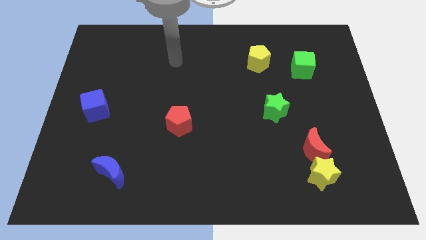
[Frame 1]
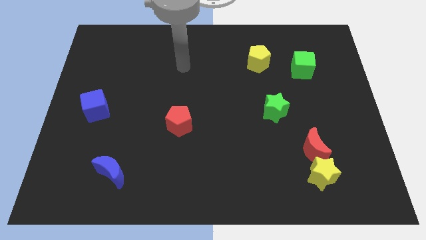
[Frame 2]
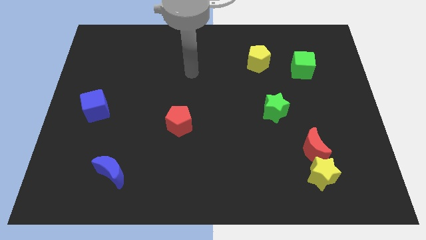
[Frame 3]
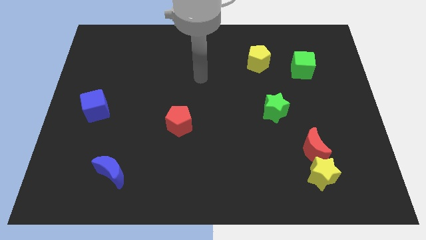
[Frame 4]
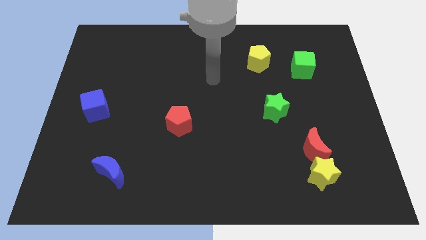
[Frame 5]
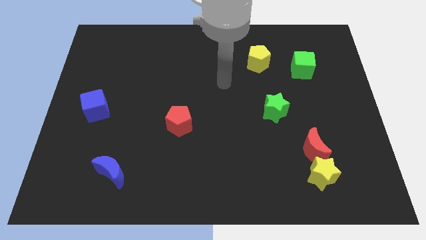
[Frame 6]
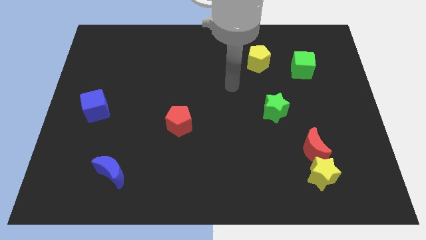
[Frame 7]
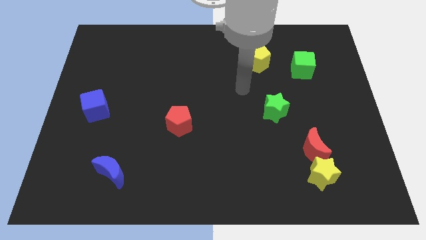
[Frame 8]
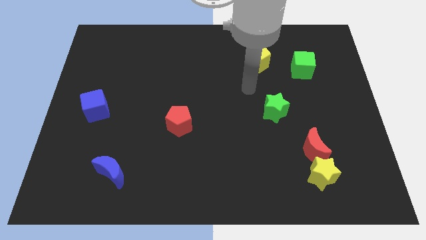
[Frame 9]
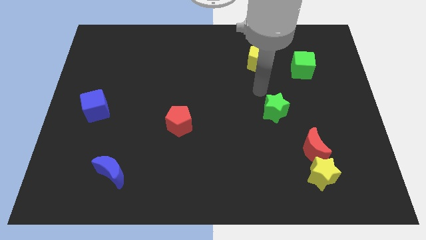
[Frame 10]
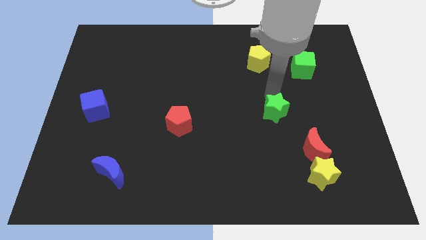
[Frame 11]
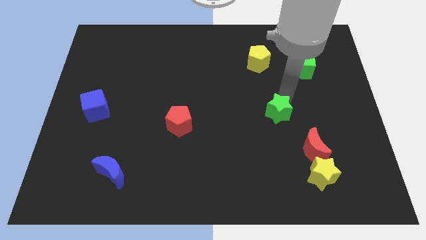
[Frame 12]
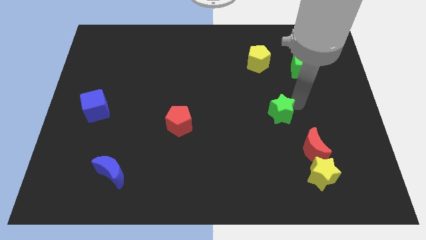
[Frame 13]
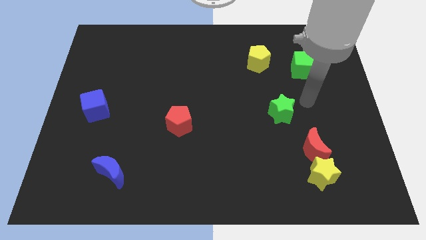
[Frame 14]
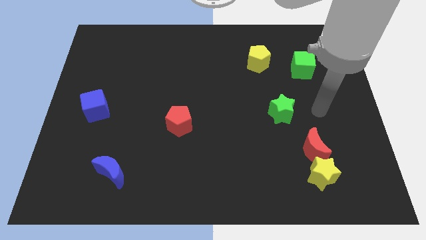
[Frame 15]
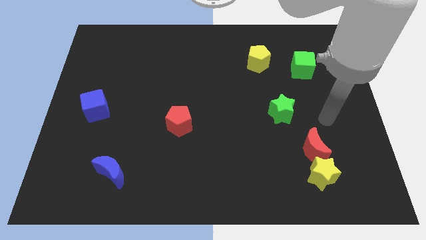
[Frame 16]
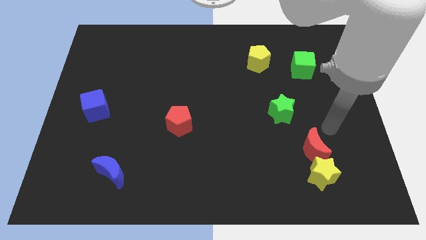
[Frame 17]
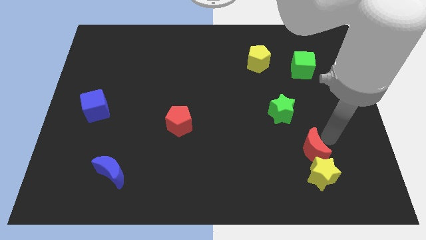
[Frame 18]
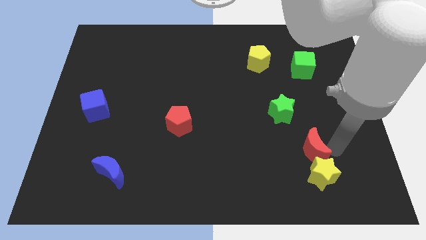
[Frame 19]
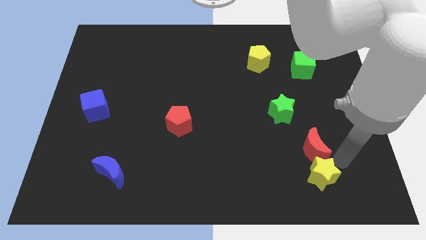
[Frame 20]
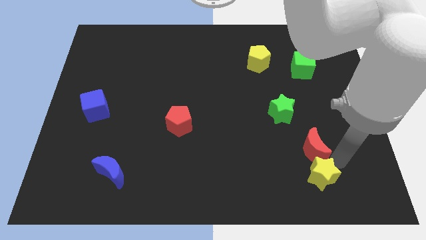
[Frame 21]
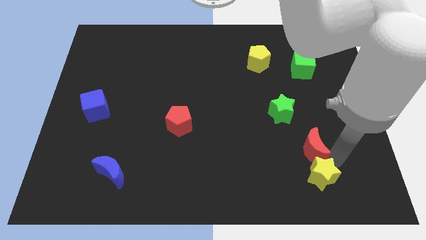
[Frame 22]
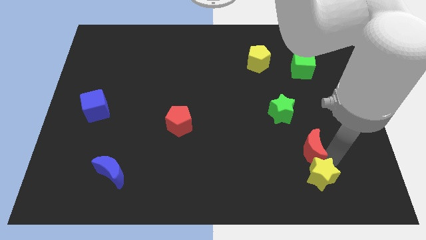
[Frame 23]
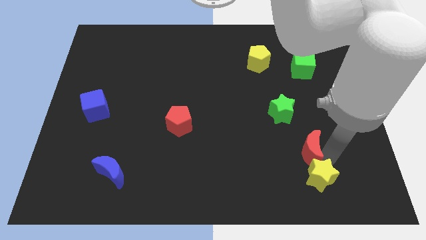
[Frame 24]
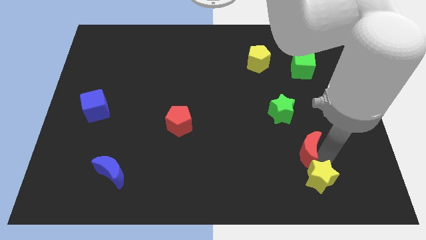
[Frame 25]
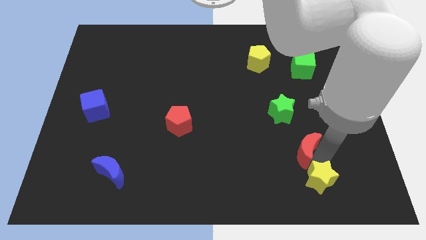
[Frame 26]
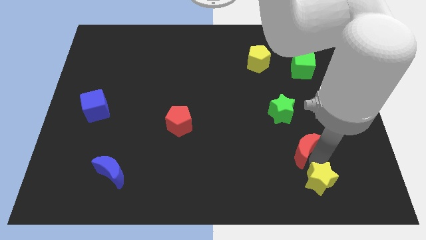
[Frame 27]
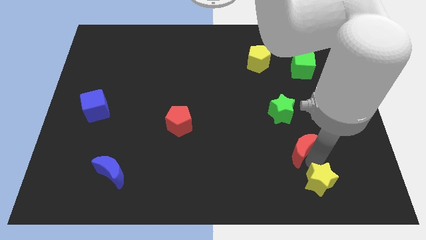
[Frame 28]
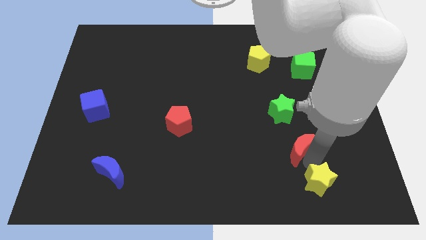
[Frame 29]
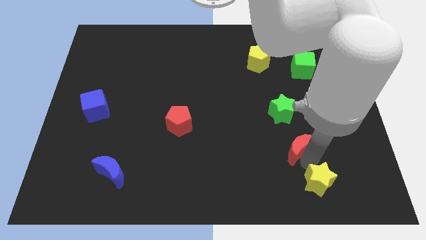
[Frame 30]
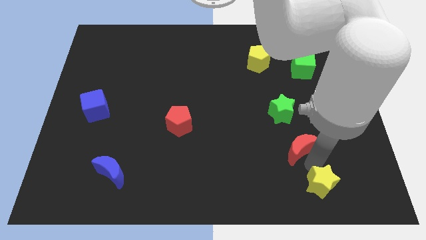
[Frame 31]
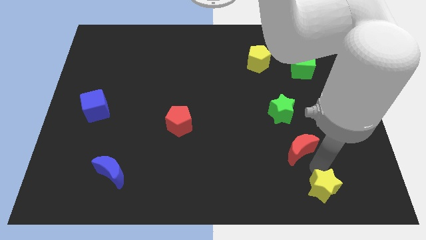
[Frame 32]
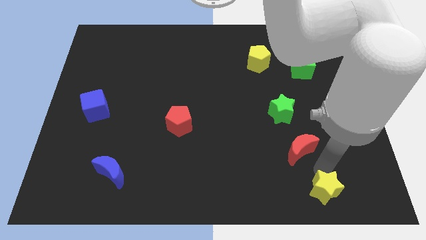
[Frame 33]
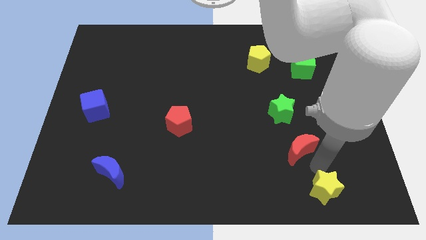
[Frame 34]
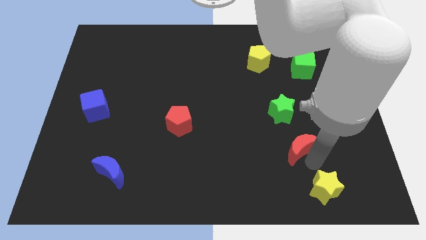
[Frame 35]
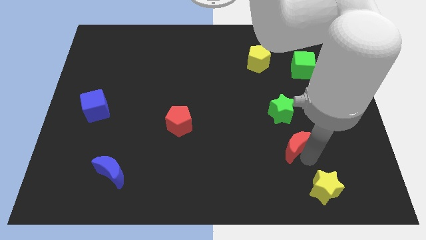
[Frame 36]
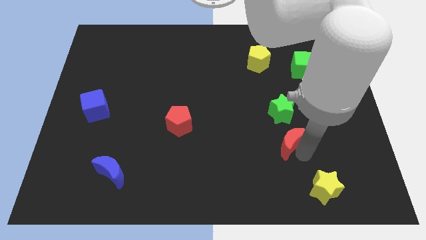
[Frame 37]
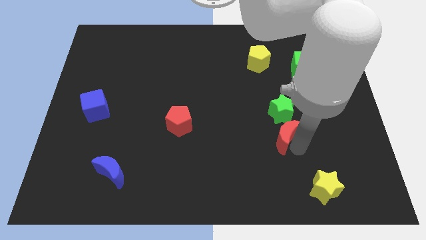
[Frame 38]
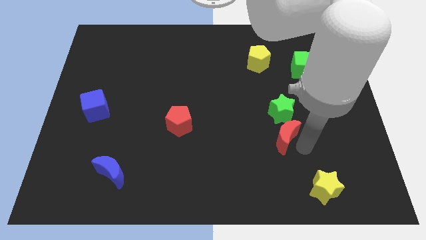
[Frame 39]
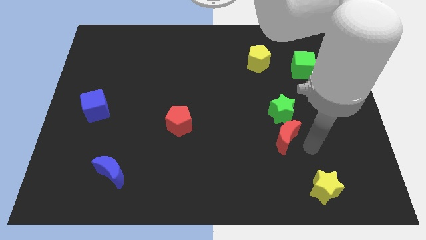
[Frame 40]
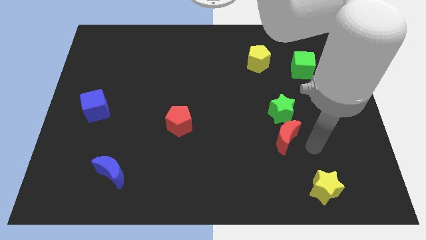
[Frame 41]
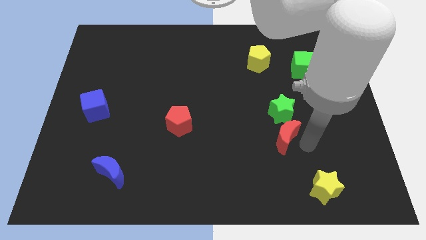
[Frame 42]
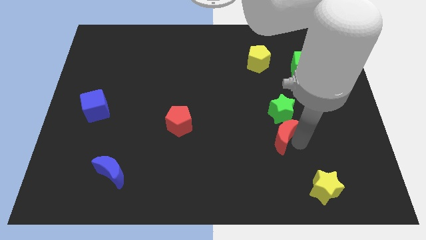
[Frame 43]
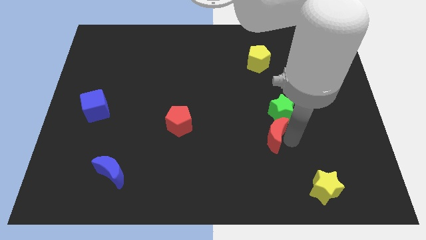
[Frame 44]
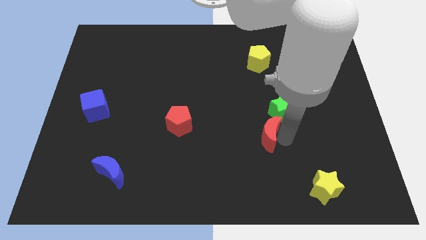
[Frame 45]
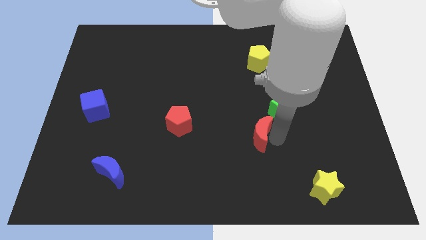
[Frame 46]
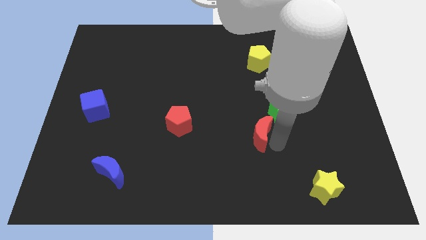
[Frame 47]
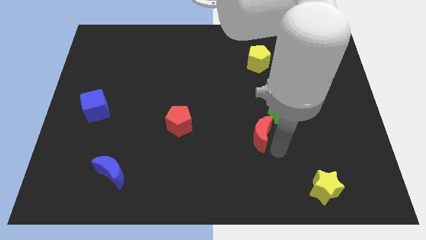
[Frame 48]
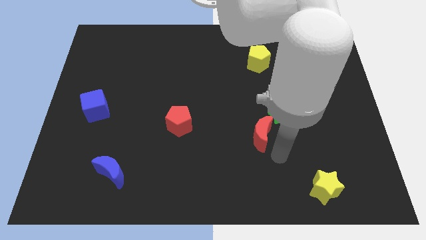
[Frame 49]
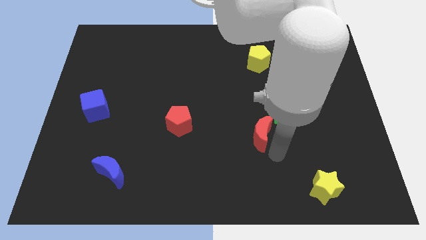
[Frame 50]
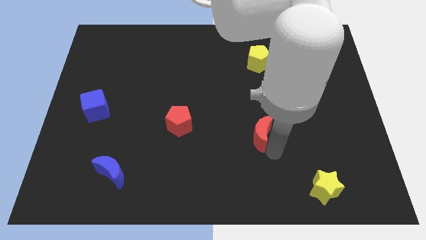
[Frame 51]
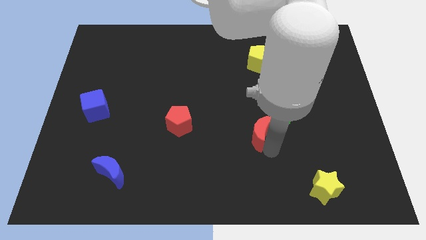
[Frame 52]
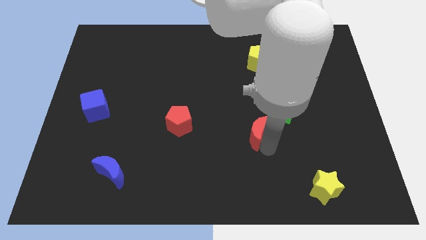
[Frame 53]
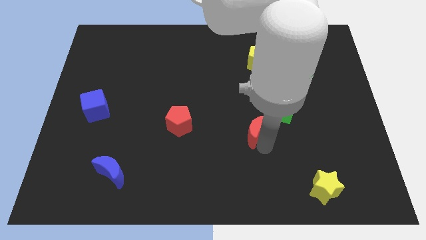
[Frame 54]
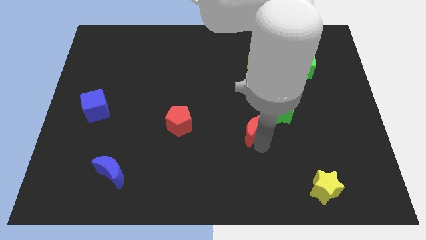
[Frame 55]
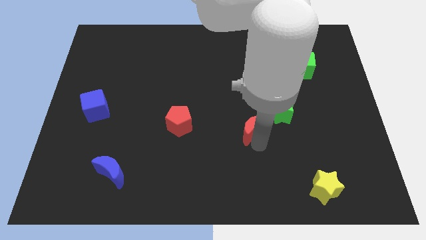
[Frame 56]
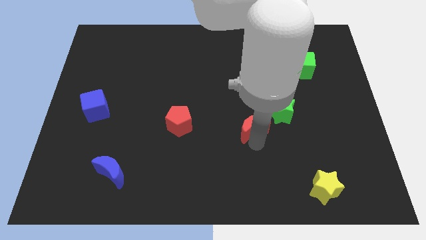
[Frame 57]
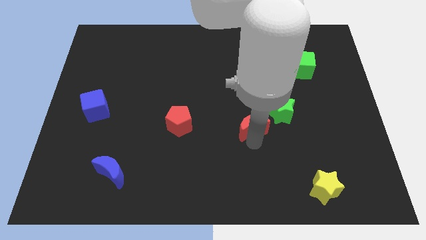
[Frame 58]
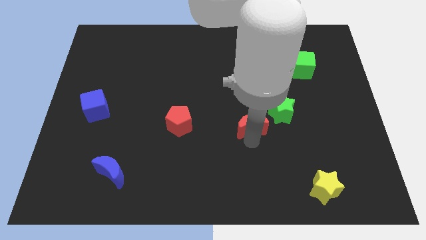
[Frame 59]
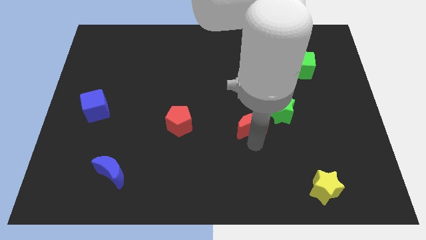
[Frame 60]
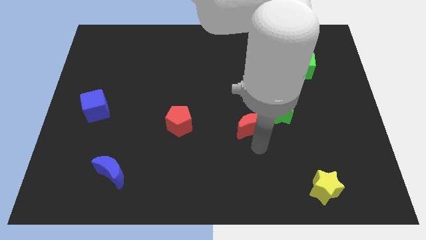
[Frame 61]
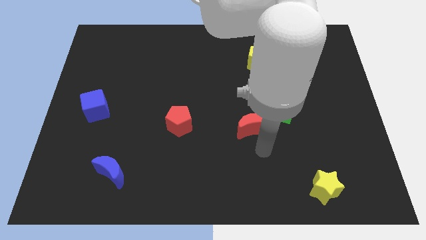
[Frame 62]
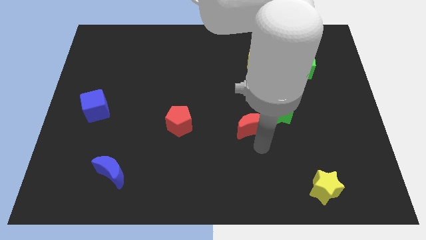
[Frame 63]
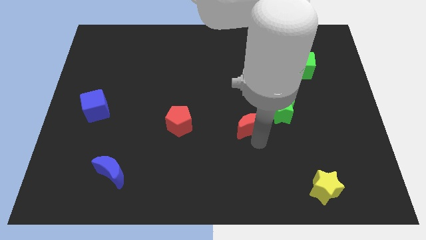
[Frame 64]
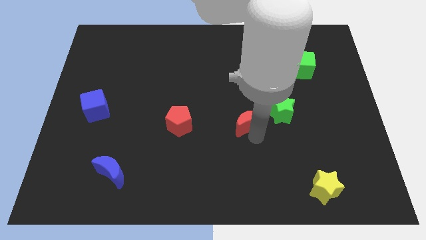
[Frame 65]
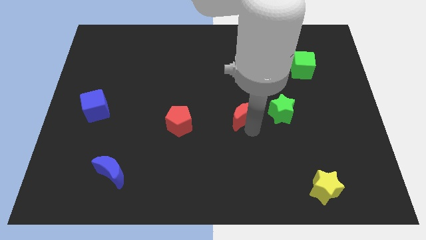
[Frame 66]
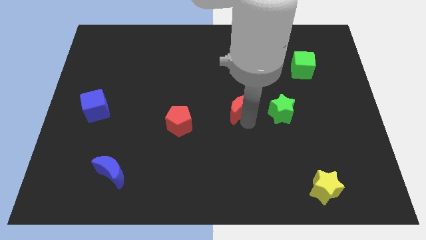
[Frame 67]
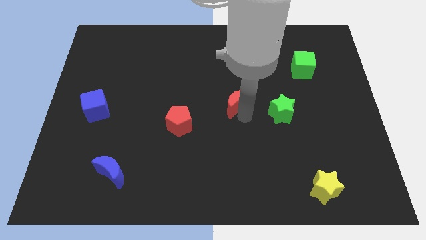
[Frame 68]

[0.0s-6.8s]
slide the red moon up and left diagonally

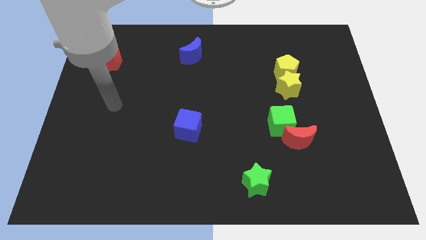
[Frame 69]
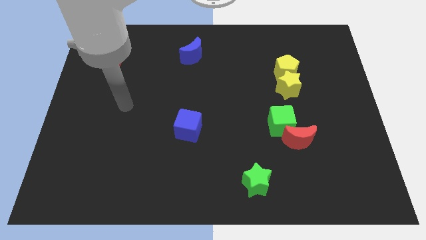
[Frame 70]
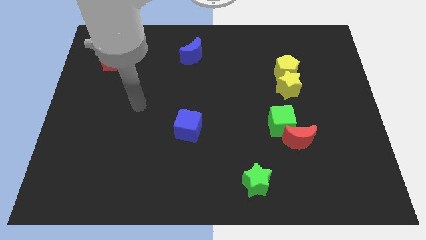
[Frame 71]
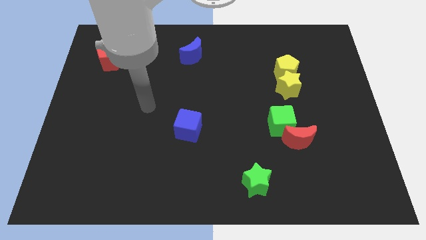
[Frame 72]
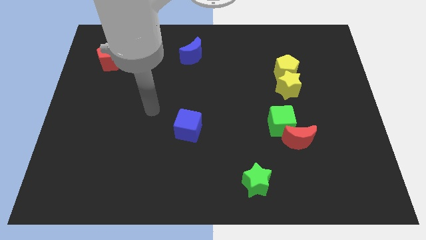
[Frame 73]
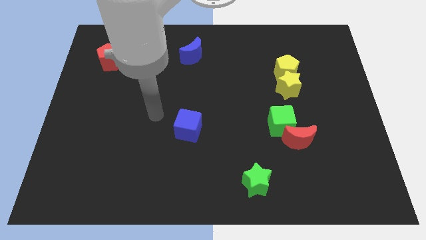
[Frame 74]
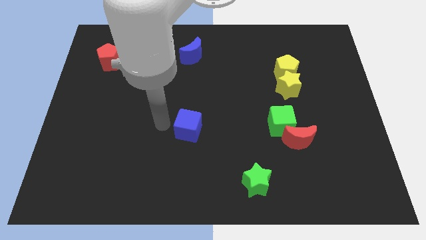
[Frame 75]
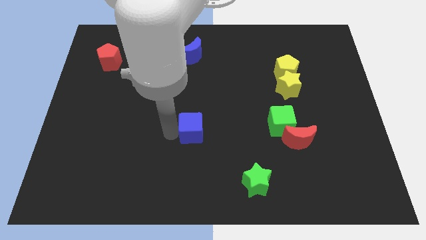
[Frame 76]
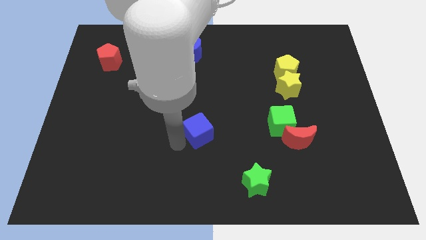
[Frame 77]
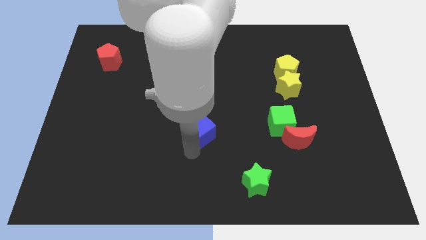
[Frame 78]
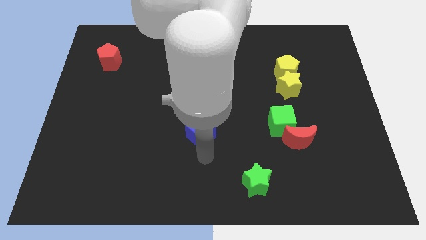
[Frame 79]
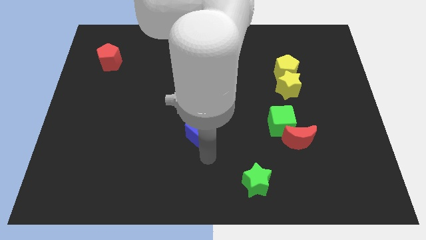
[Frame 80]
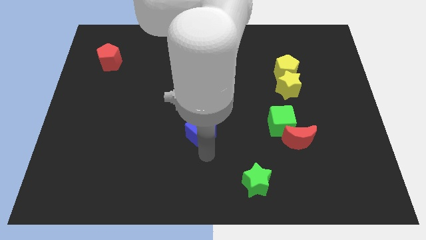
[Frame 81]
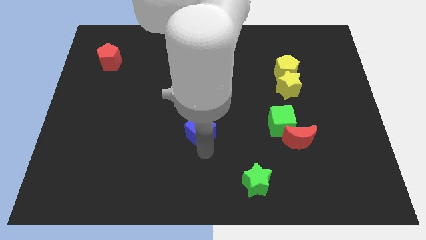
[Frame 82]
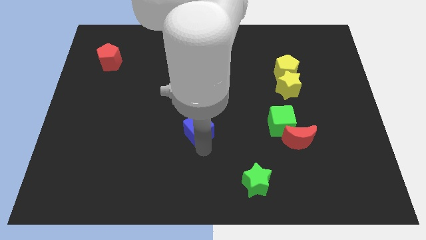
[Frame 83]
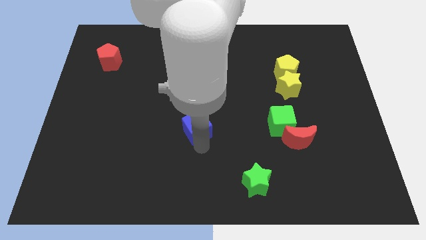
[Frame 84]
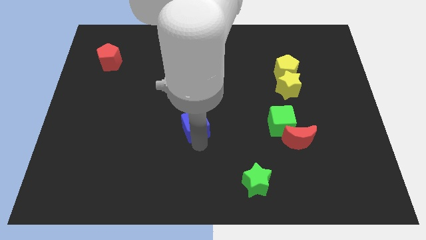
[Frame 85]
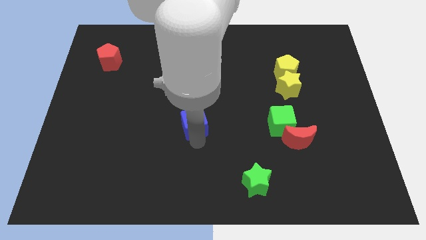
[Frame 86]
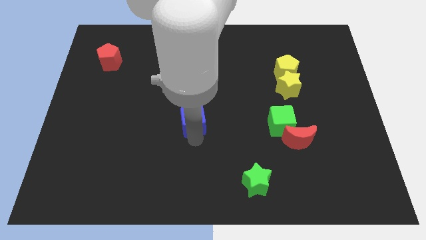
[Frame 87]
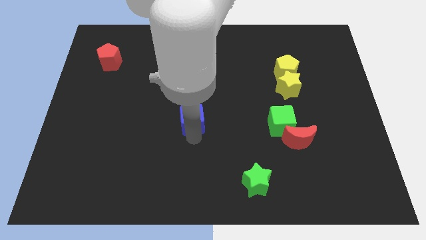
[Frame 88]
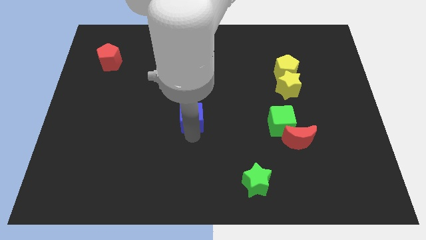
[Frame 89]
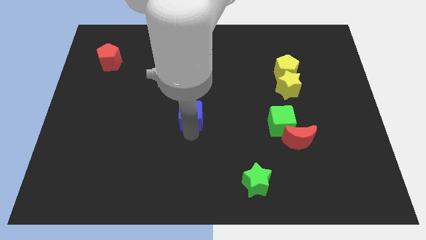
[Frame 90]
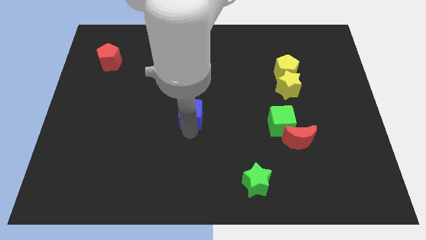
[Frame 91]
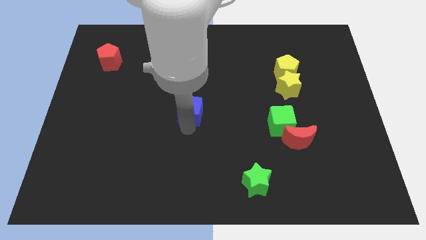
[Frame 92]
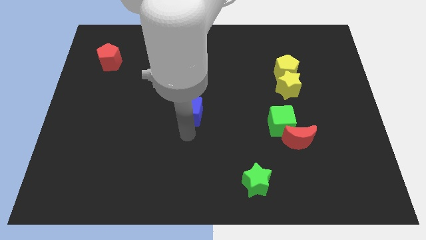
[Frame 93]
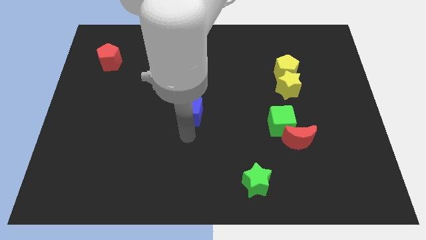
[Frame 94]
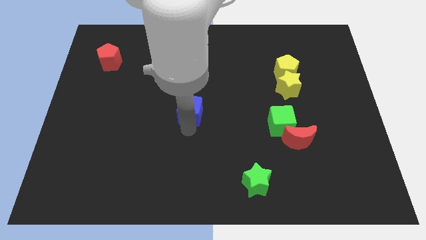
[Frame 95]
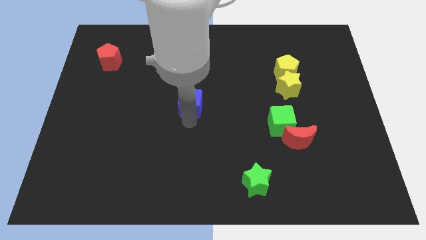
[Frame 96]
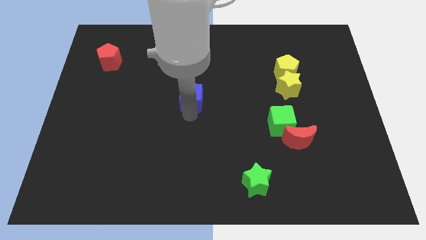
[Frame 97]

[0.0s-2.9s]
push the blue cube up slightly
